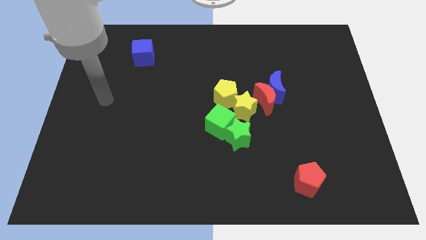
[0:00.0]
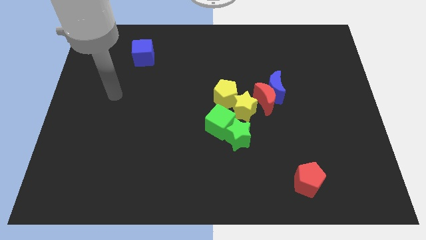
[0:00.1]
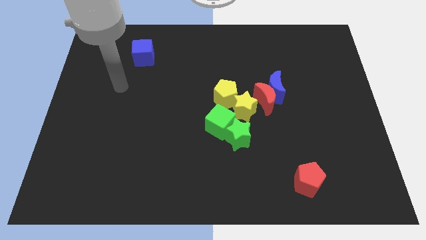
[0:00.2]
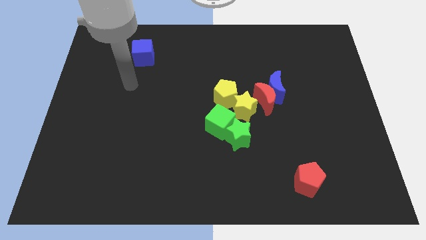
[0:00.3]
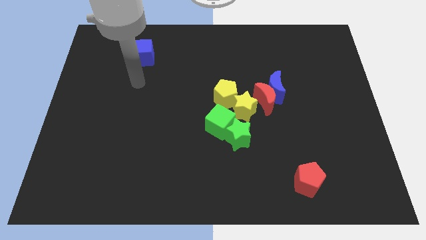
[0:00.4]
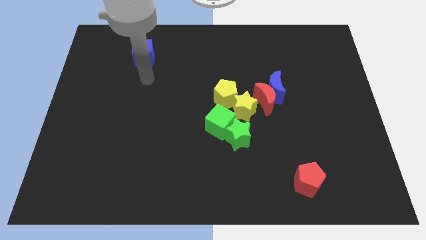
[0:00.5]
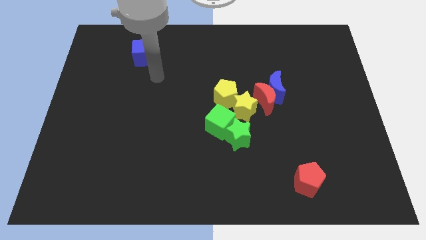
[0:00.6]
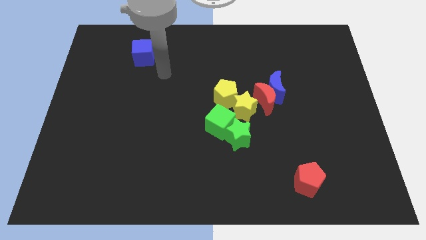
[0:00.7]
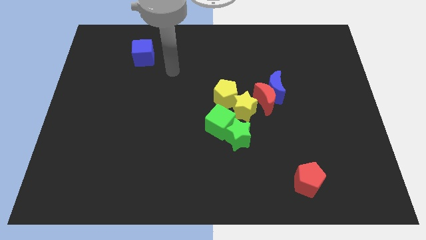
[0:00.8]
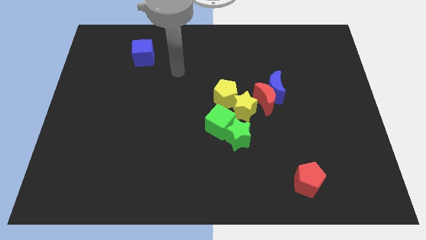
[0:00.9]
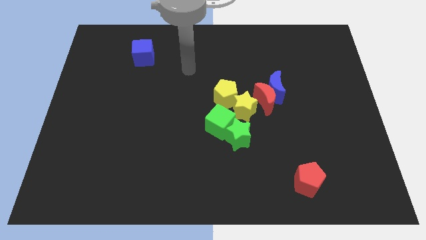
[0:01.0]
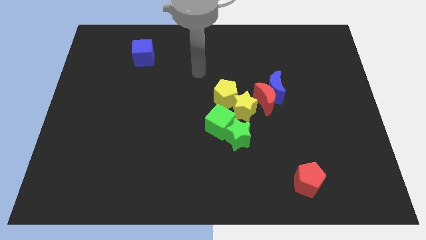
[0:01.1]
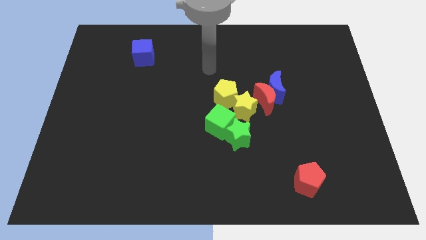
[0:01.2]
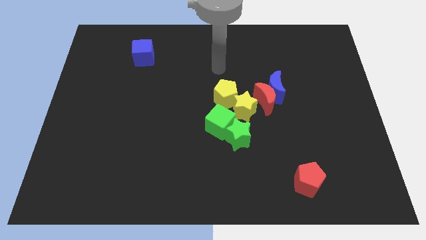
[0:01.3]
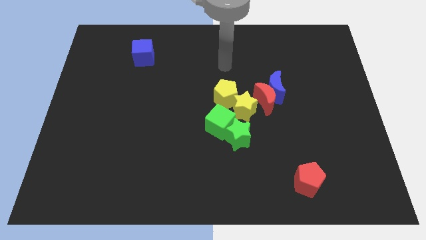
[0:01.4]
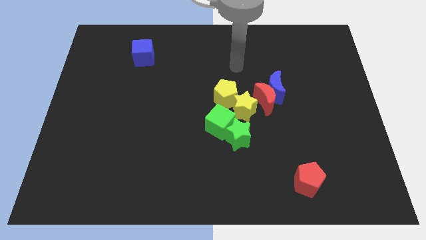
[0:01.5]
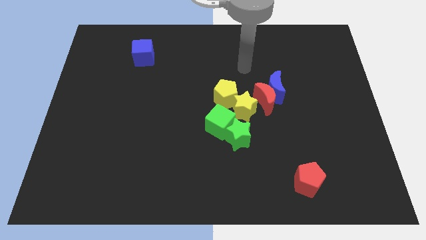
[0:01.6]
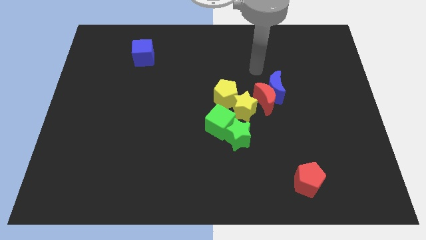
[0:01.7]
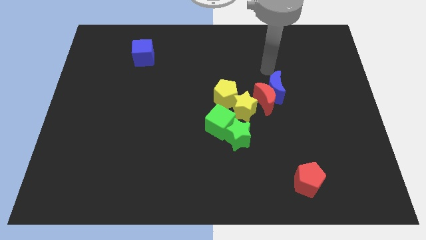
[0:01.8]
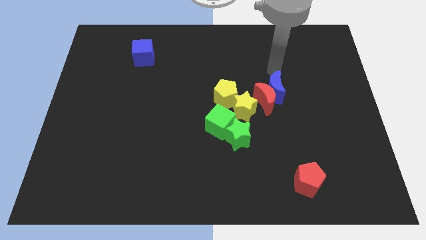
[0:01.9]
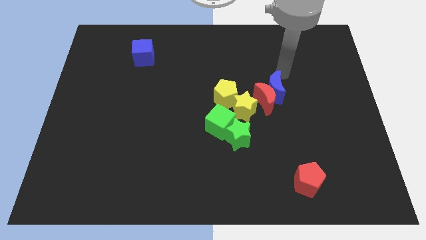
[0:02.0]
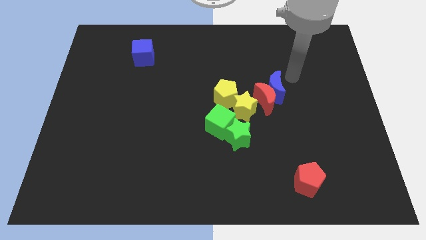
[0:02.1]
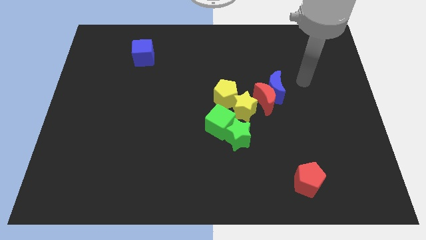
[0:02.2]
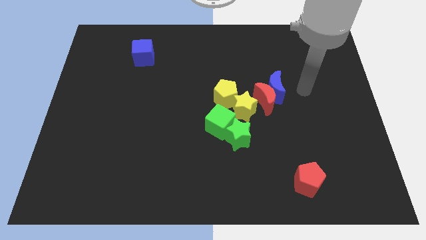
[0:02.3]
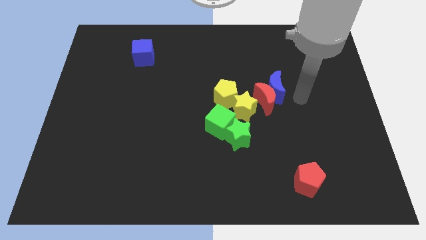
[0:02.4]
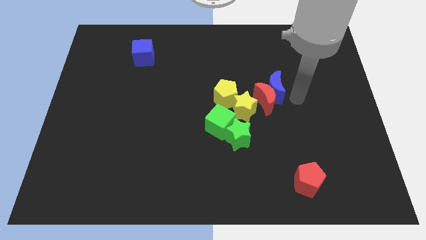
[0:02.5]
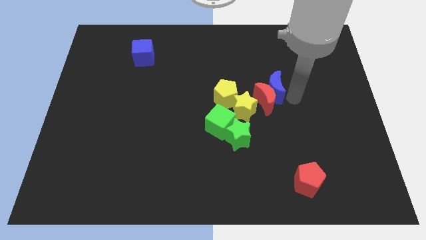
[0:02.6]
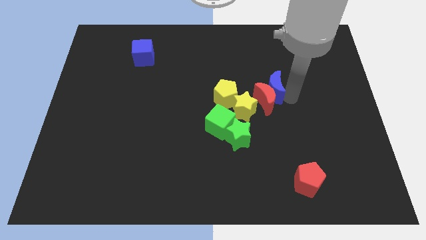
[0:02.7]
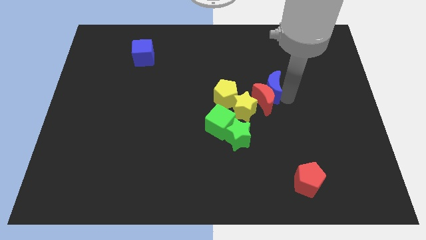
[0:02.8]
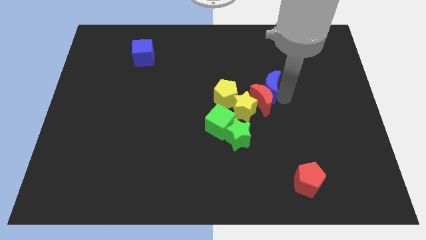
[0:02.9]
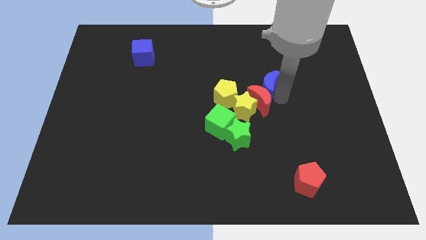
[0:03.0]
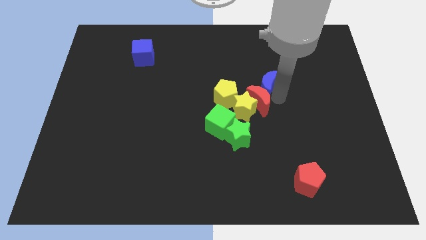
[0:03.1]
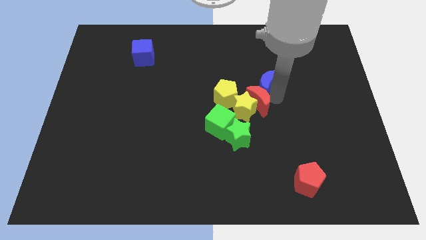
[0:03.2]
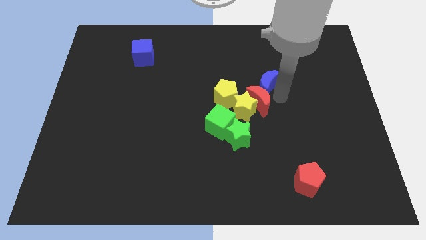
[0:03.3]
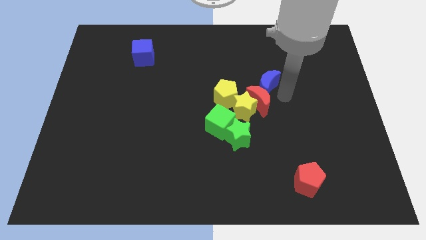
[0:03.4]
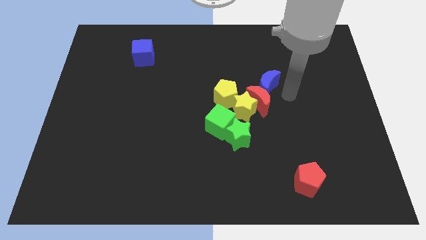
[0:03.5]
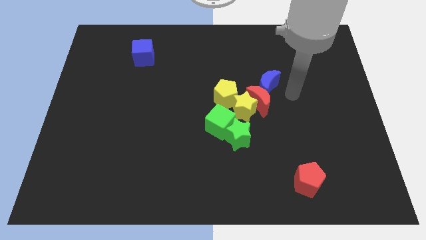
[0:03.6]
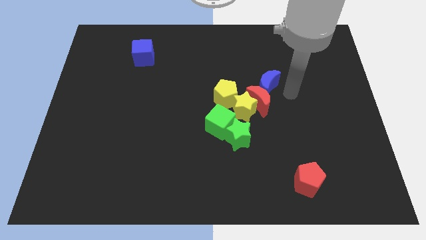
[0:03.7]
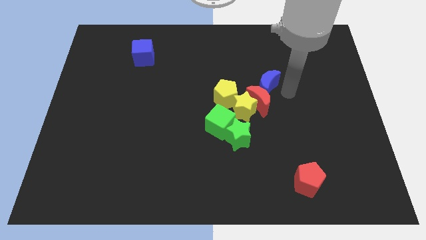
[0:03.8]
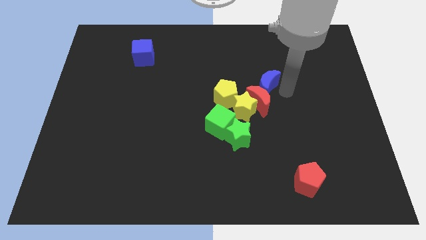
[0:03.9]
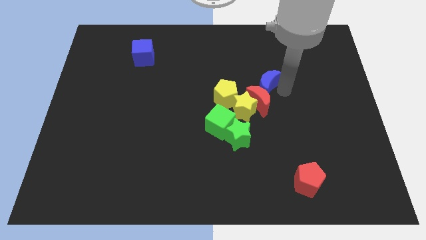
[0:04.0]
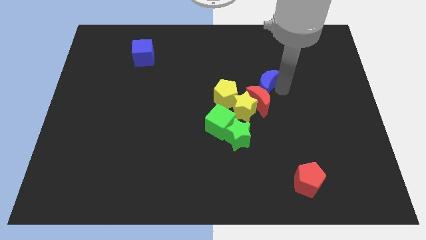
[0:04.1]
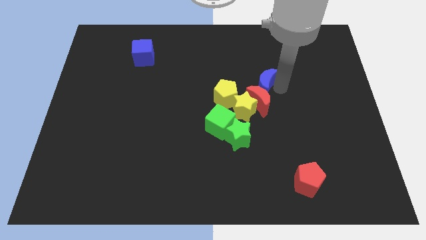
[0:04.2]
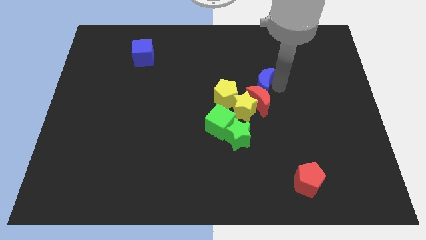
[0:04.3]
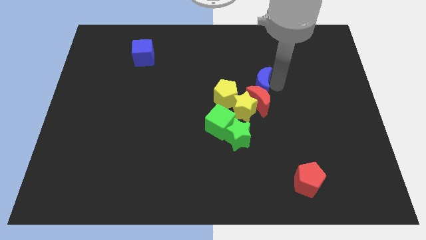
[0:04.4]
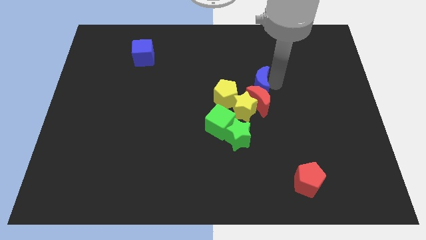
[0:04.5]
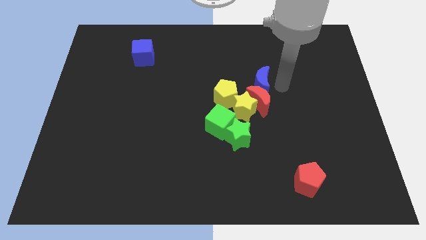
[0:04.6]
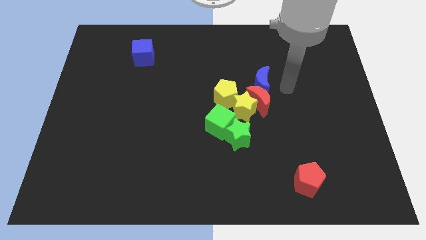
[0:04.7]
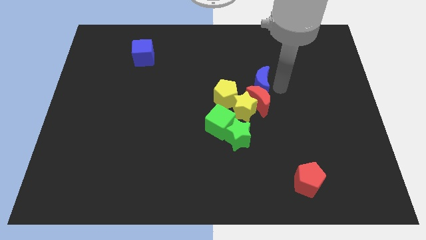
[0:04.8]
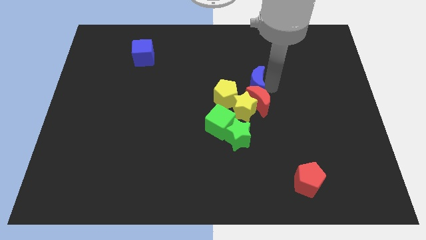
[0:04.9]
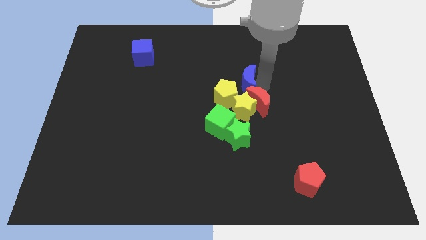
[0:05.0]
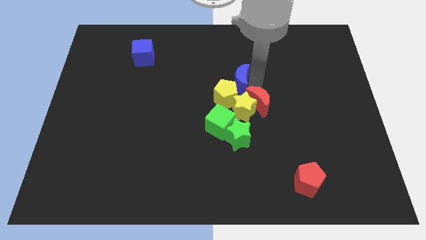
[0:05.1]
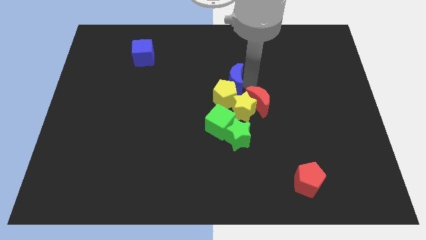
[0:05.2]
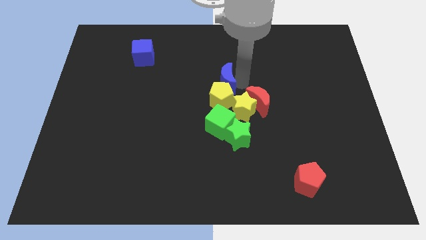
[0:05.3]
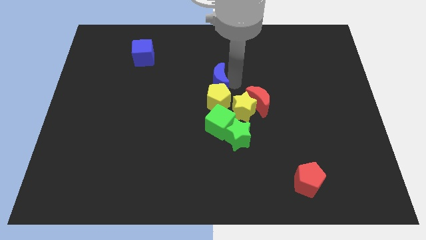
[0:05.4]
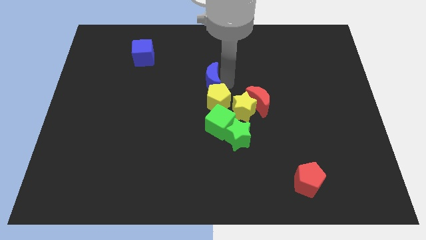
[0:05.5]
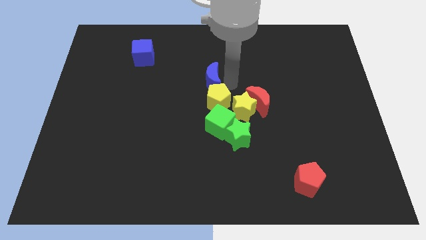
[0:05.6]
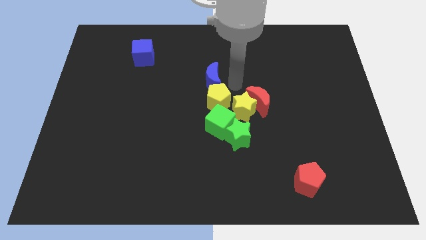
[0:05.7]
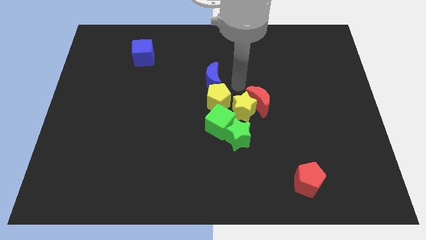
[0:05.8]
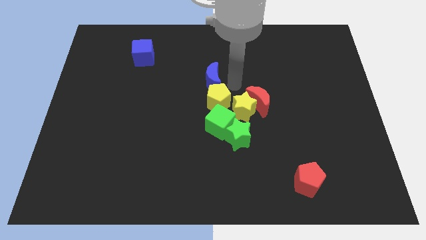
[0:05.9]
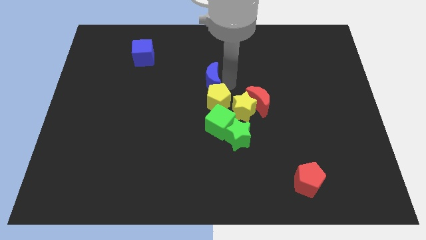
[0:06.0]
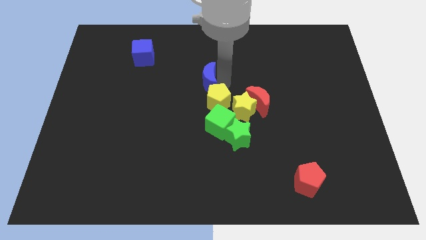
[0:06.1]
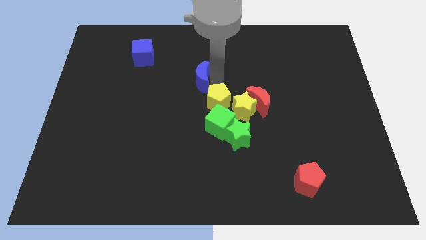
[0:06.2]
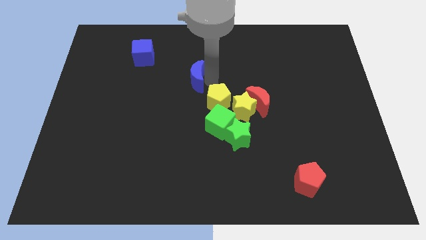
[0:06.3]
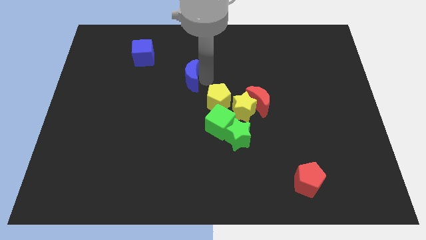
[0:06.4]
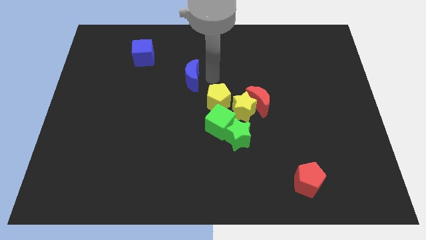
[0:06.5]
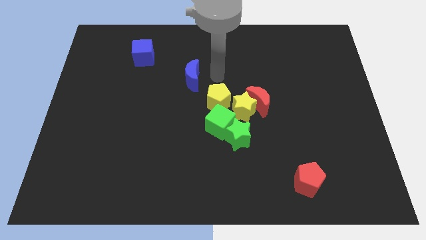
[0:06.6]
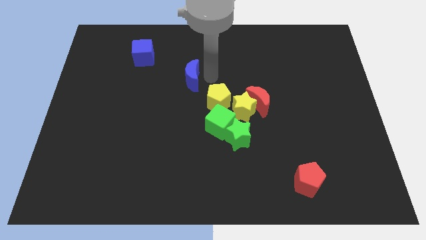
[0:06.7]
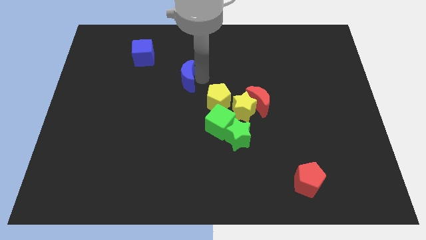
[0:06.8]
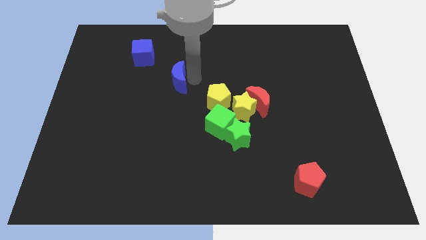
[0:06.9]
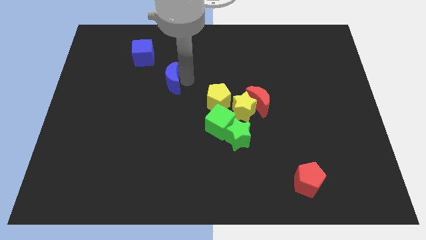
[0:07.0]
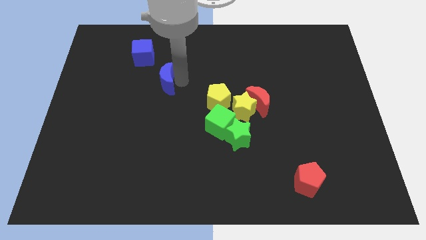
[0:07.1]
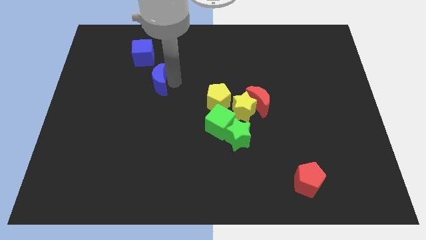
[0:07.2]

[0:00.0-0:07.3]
put the blue moon below the blue cube
